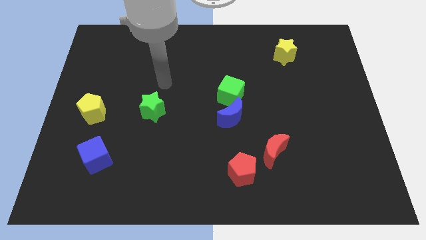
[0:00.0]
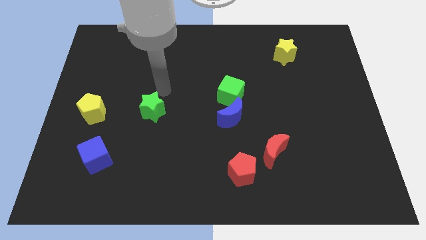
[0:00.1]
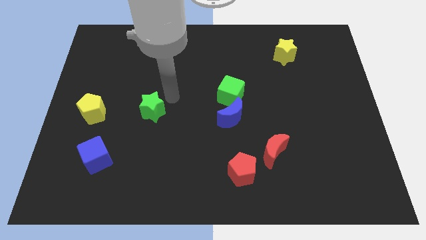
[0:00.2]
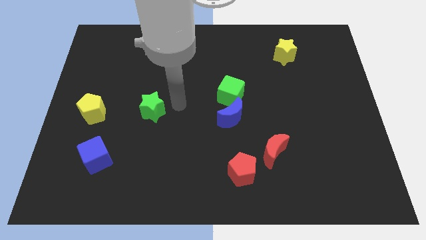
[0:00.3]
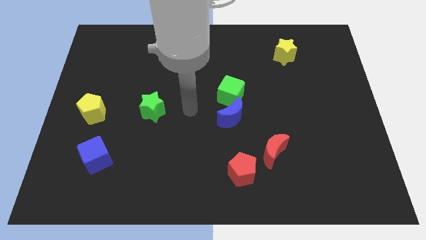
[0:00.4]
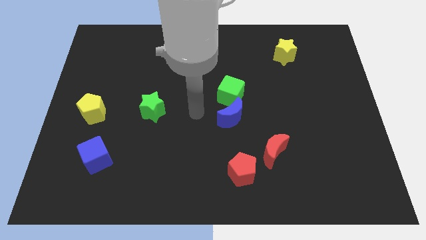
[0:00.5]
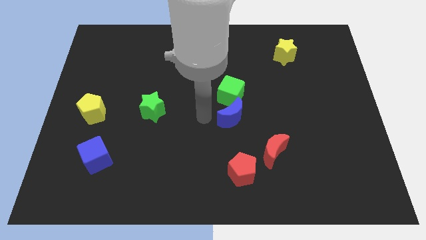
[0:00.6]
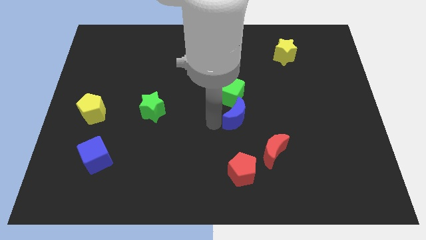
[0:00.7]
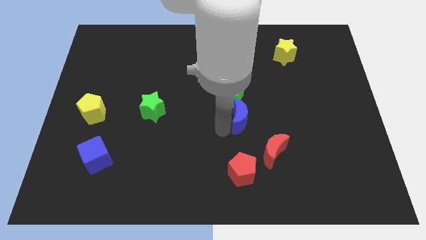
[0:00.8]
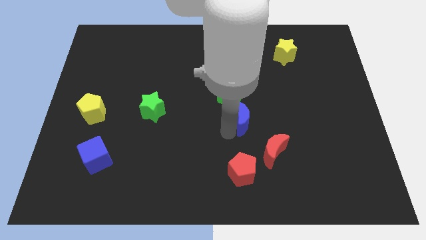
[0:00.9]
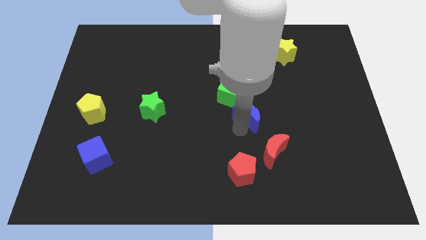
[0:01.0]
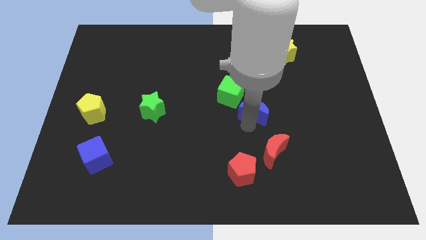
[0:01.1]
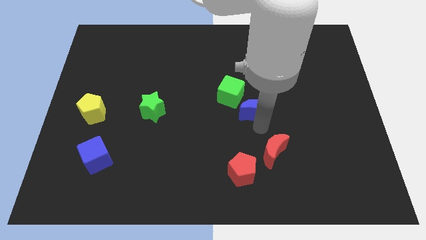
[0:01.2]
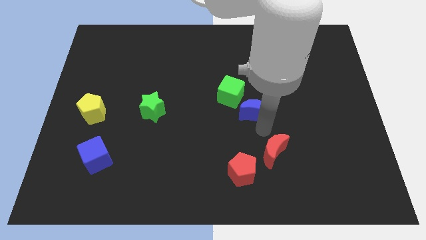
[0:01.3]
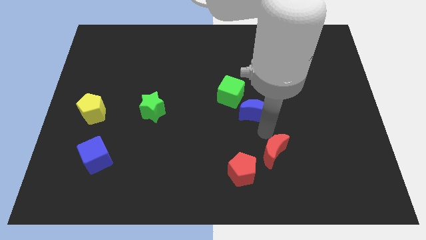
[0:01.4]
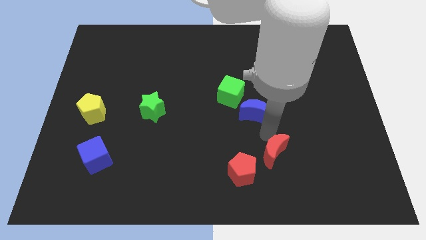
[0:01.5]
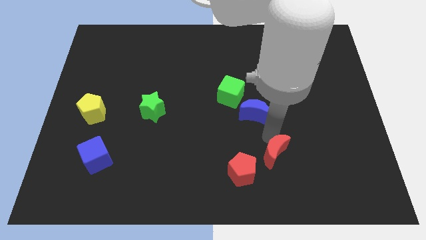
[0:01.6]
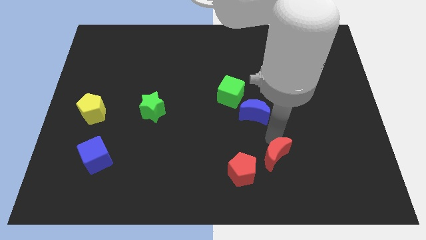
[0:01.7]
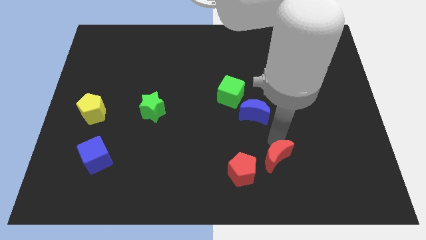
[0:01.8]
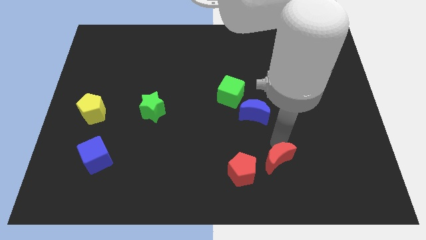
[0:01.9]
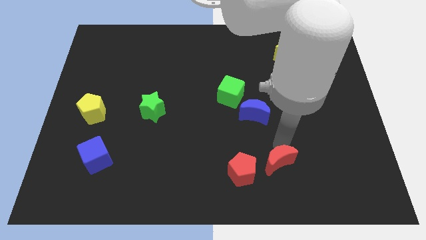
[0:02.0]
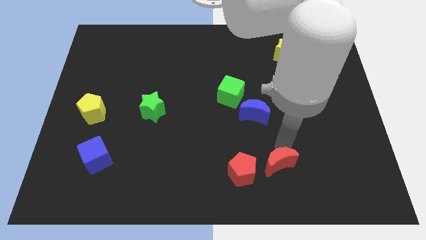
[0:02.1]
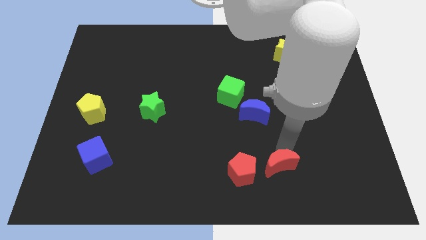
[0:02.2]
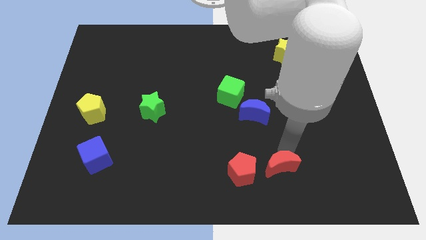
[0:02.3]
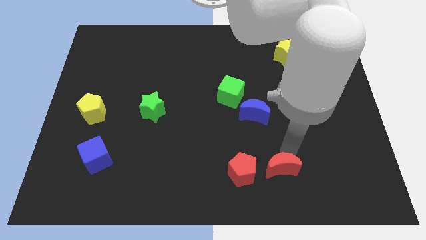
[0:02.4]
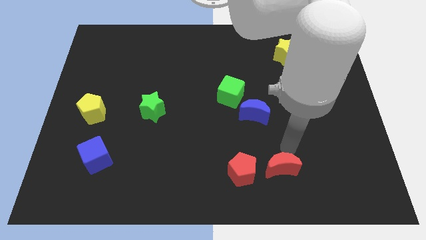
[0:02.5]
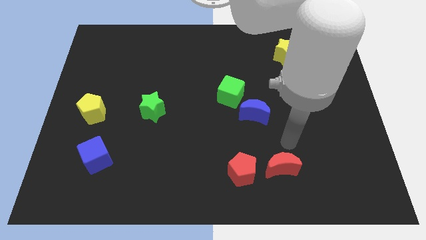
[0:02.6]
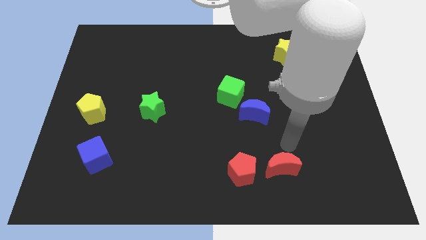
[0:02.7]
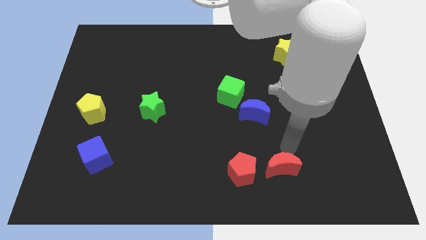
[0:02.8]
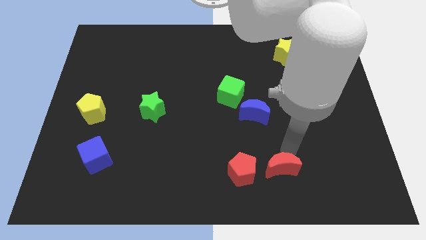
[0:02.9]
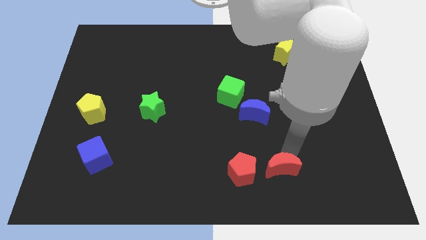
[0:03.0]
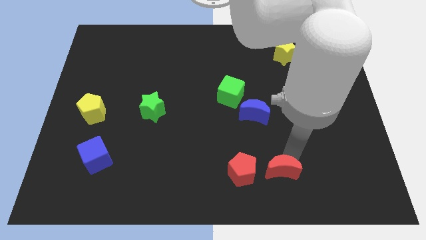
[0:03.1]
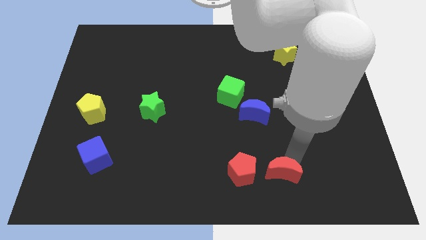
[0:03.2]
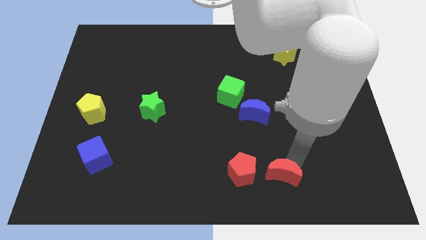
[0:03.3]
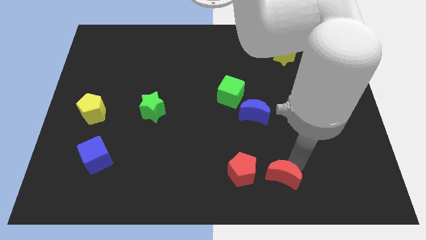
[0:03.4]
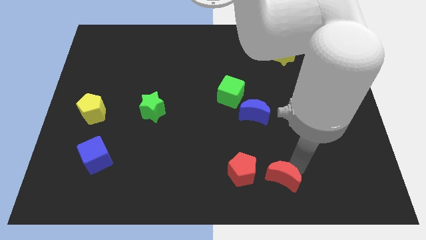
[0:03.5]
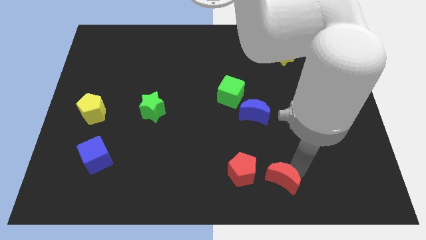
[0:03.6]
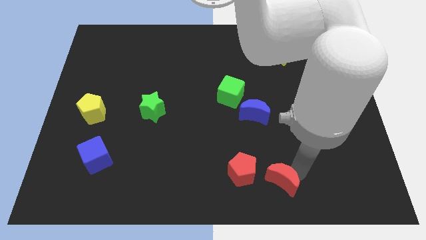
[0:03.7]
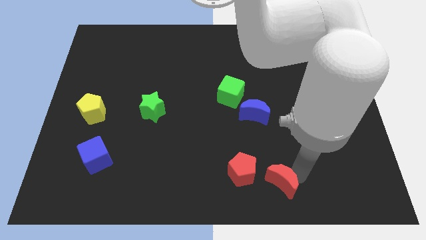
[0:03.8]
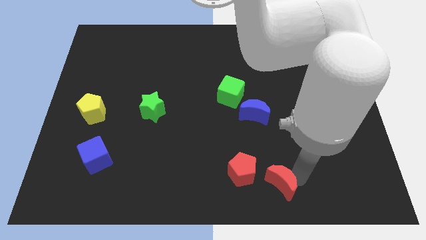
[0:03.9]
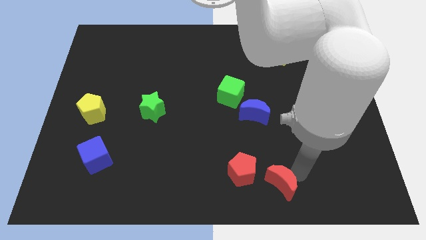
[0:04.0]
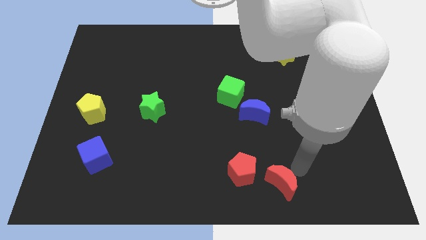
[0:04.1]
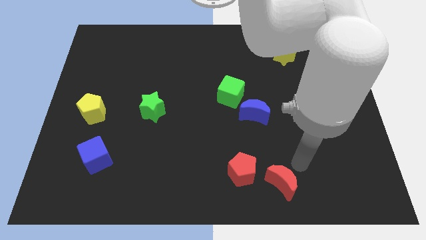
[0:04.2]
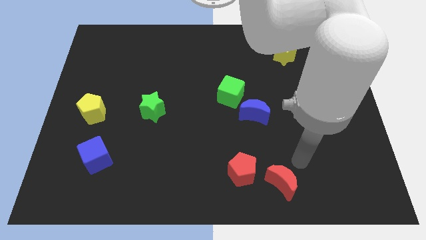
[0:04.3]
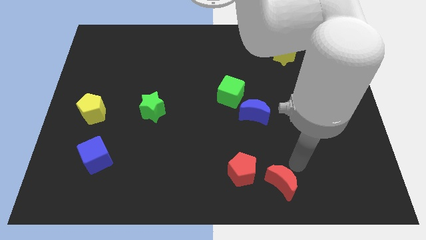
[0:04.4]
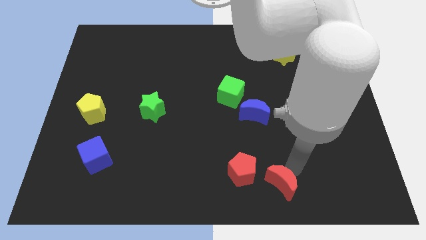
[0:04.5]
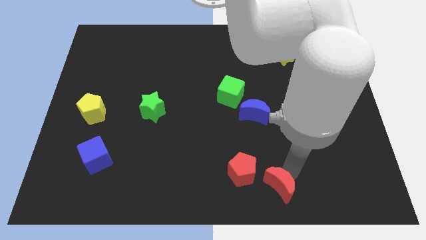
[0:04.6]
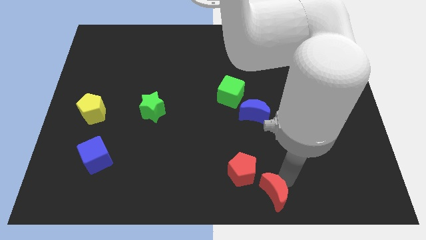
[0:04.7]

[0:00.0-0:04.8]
slide the red moon to the bottom side

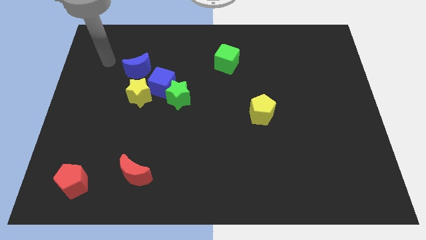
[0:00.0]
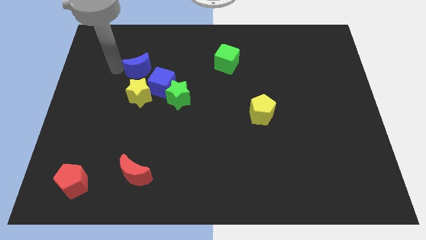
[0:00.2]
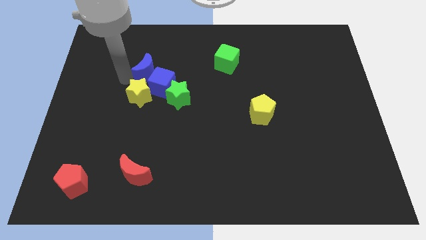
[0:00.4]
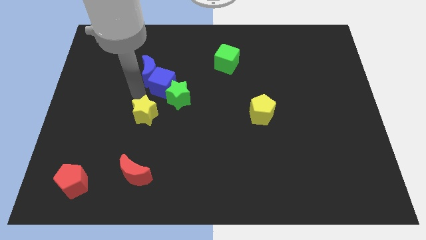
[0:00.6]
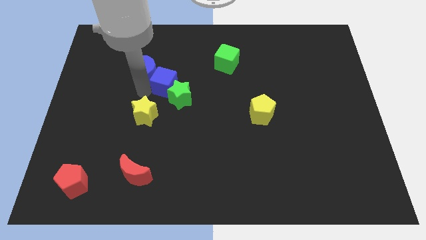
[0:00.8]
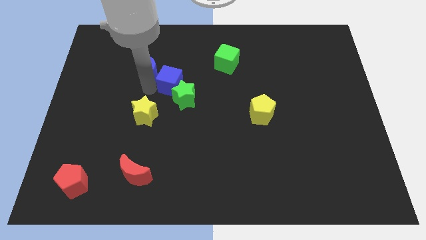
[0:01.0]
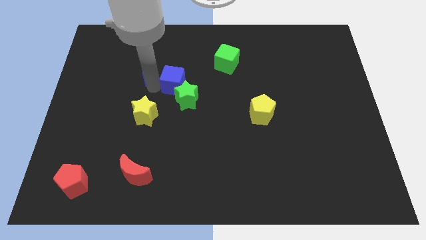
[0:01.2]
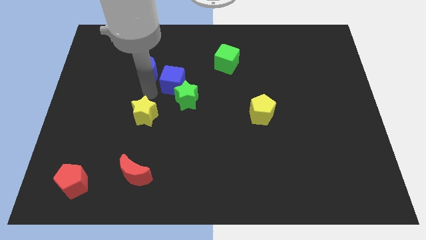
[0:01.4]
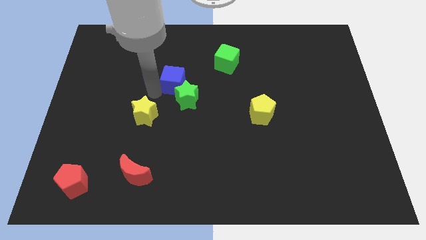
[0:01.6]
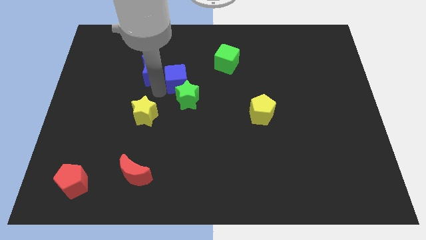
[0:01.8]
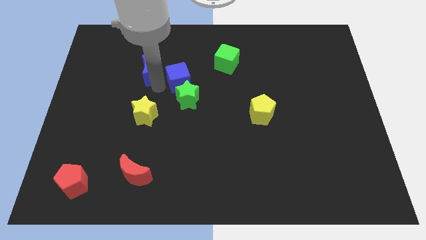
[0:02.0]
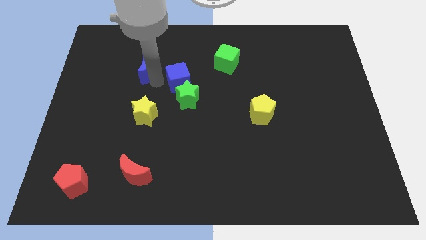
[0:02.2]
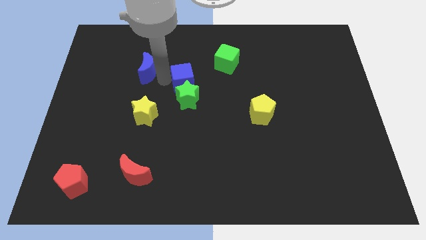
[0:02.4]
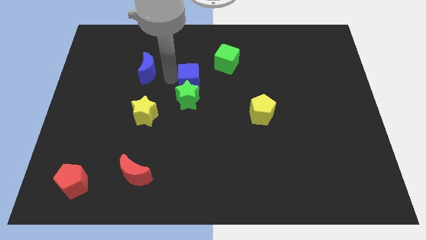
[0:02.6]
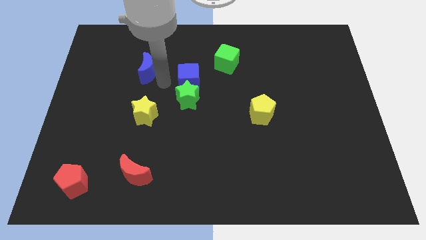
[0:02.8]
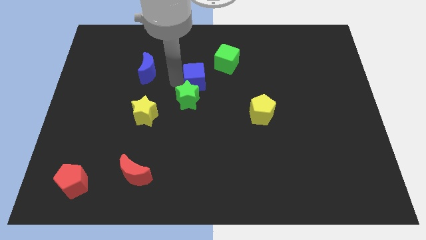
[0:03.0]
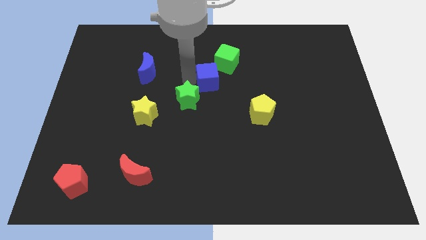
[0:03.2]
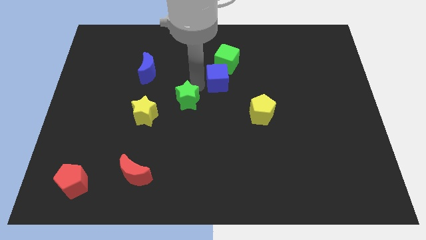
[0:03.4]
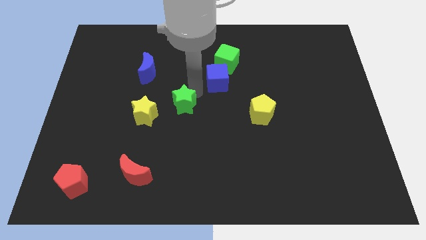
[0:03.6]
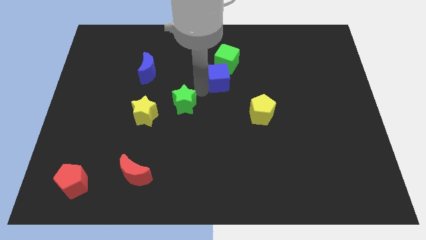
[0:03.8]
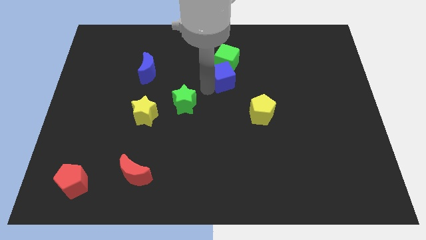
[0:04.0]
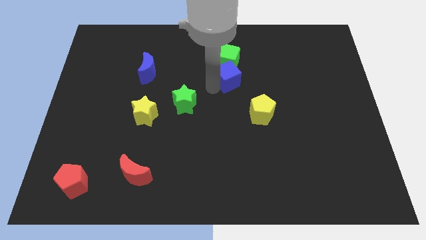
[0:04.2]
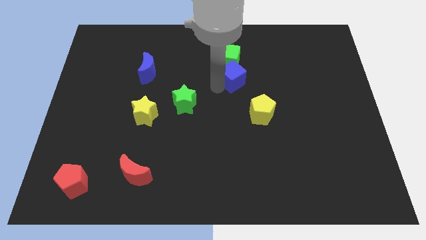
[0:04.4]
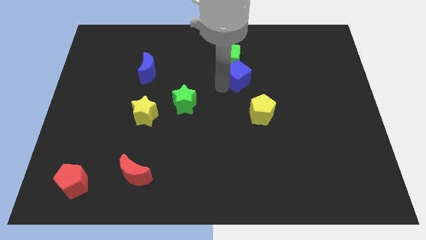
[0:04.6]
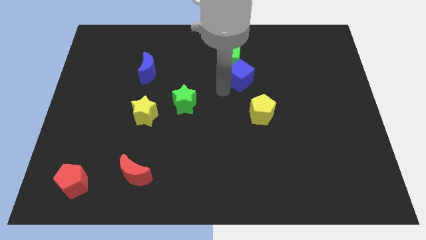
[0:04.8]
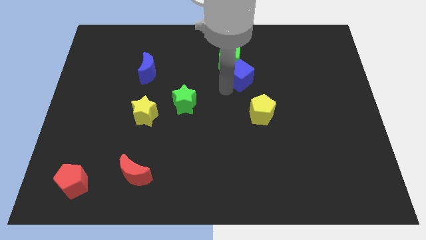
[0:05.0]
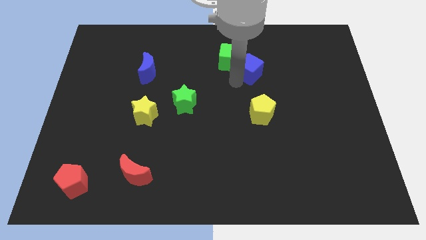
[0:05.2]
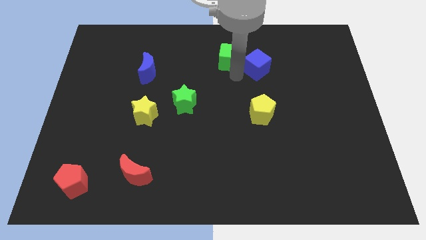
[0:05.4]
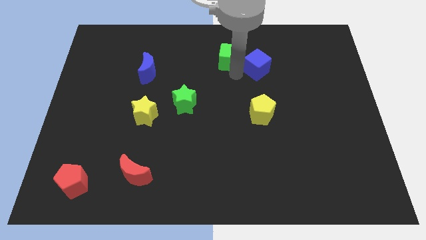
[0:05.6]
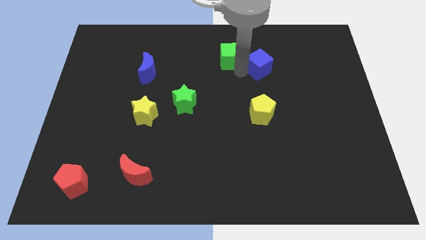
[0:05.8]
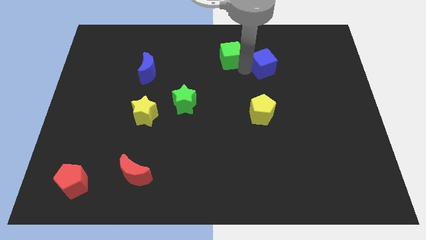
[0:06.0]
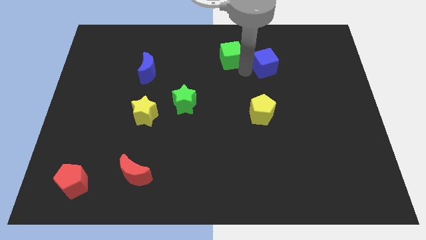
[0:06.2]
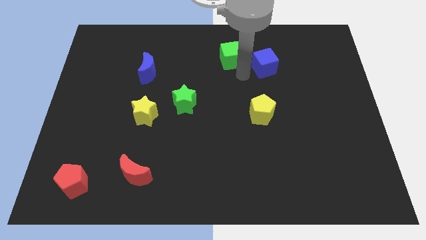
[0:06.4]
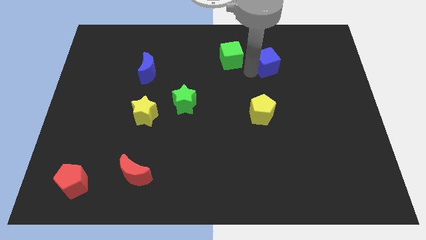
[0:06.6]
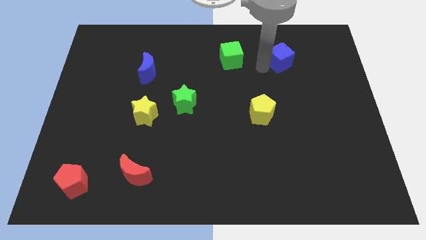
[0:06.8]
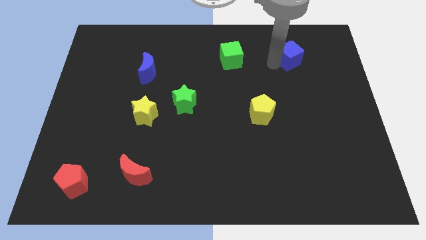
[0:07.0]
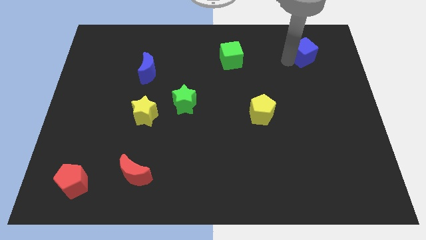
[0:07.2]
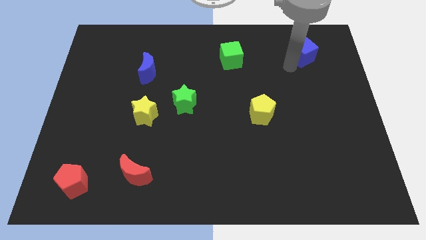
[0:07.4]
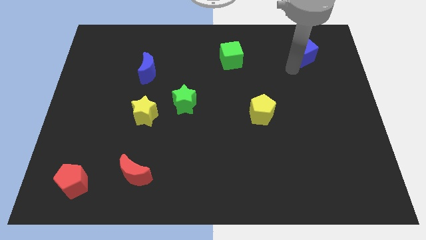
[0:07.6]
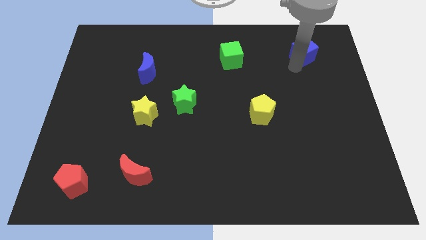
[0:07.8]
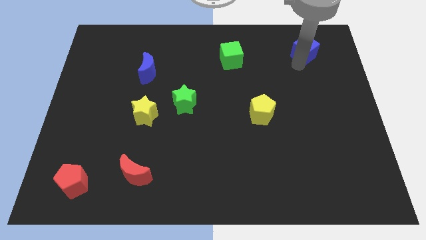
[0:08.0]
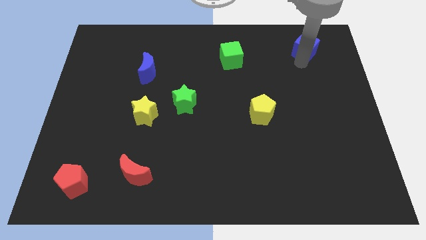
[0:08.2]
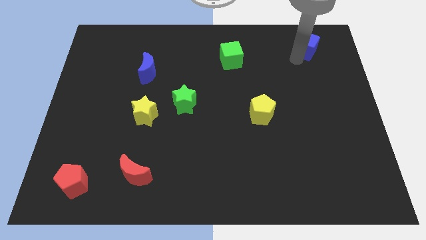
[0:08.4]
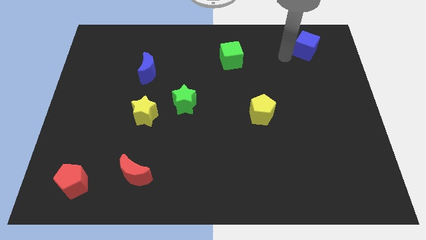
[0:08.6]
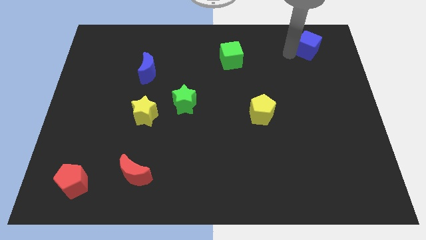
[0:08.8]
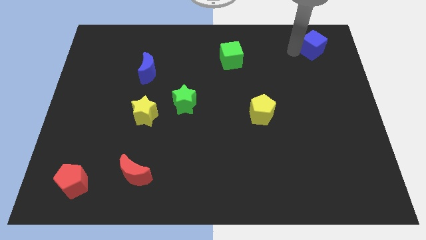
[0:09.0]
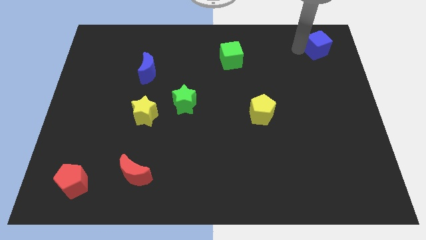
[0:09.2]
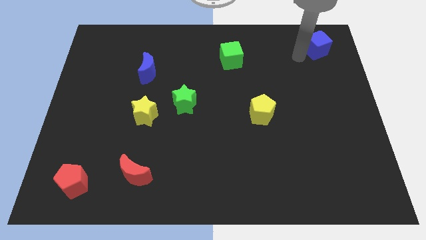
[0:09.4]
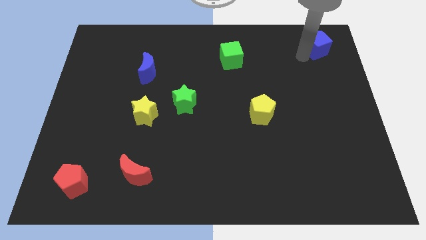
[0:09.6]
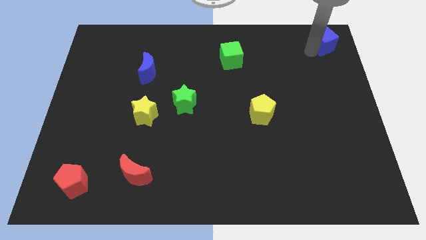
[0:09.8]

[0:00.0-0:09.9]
slide the blue cube to the upper right corner
